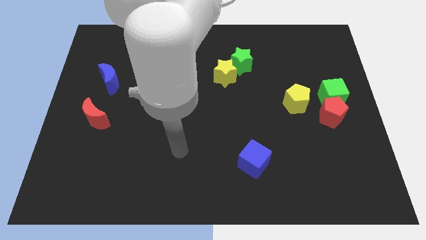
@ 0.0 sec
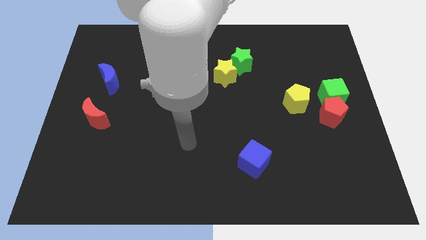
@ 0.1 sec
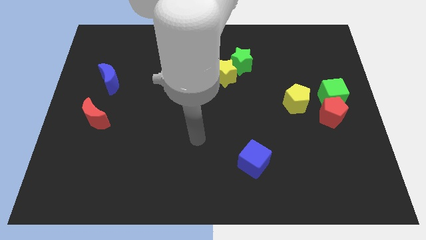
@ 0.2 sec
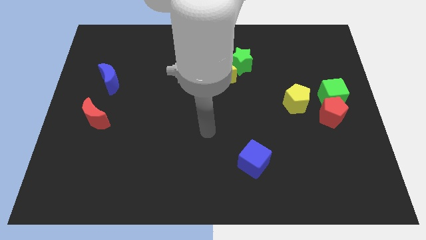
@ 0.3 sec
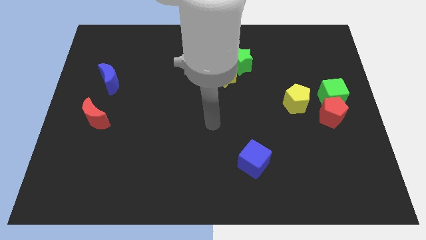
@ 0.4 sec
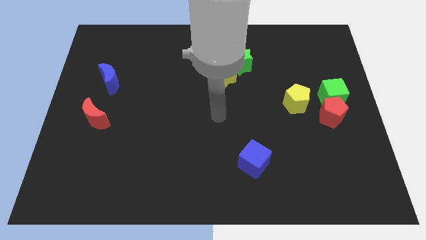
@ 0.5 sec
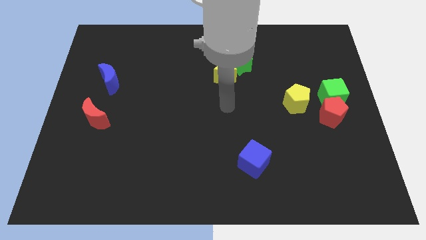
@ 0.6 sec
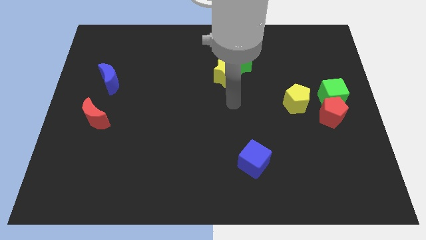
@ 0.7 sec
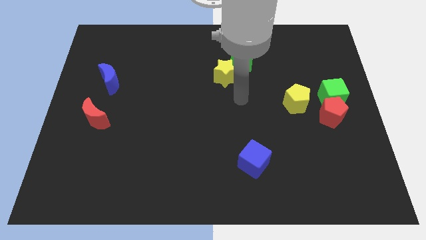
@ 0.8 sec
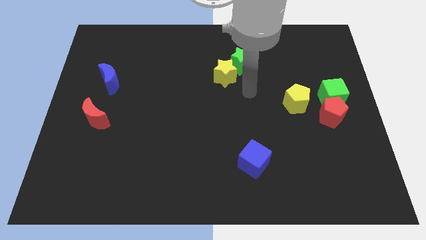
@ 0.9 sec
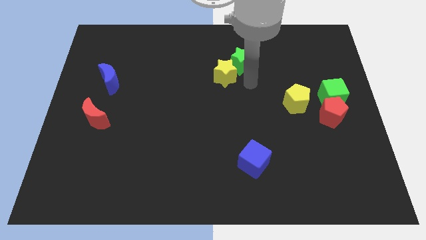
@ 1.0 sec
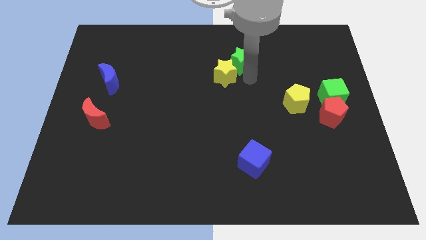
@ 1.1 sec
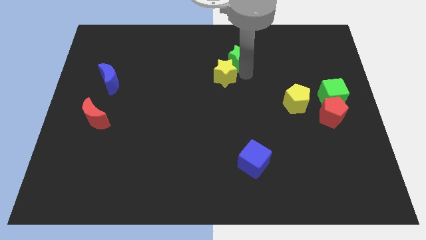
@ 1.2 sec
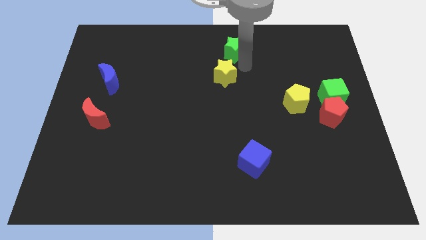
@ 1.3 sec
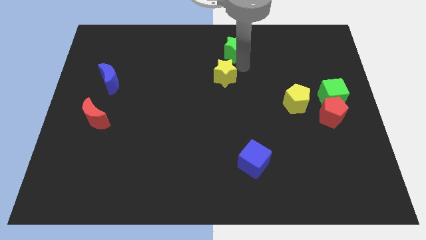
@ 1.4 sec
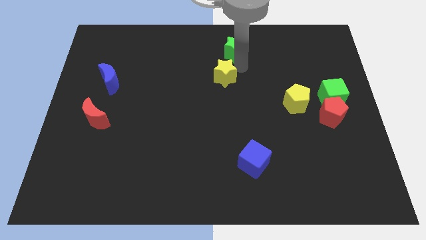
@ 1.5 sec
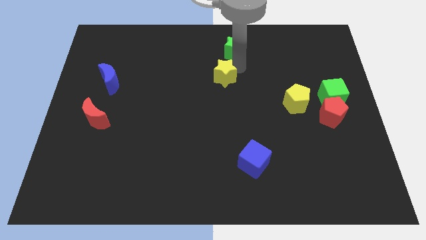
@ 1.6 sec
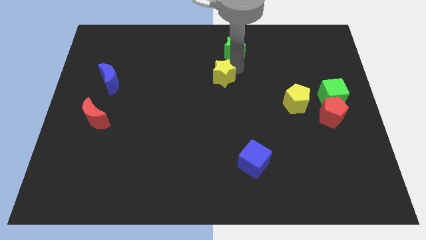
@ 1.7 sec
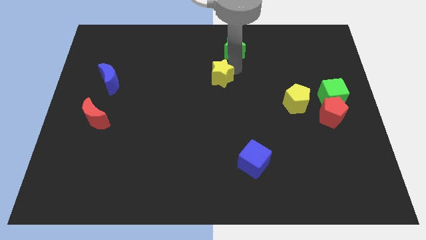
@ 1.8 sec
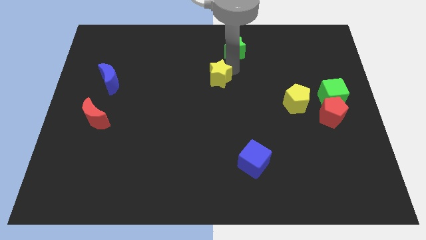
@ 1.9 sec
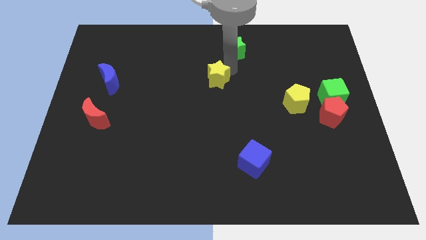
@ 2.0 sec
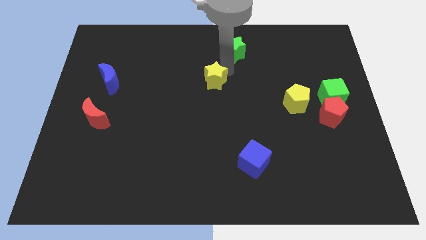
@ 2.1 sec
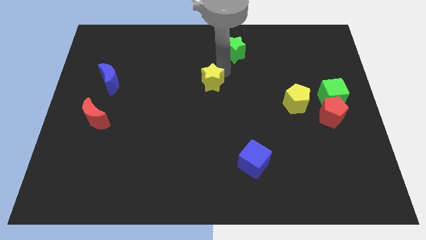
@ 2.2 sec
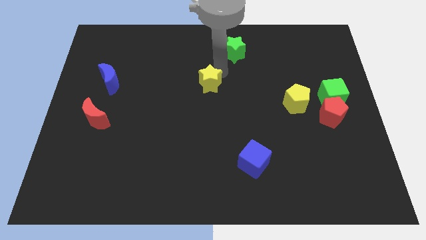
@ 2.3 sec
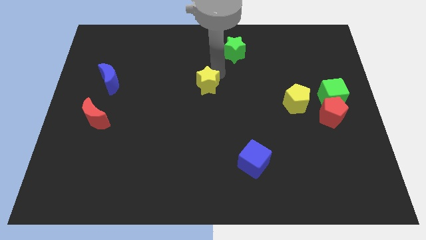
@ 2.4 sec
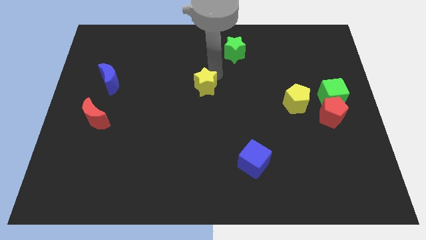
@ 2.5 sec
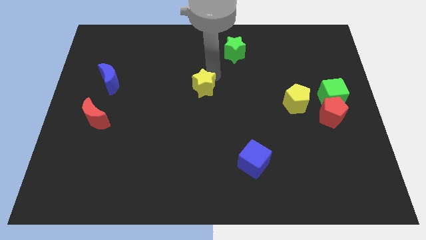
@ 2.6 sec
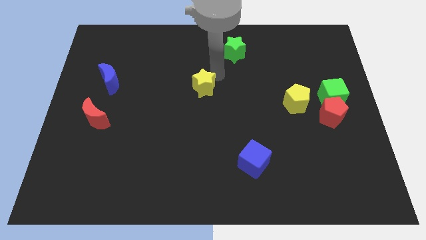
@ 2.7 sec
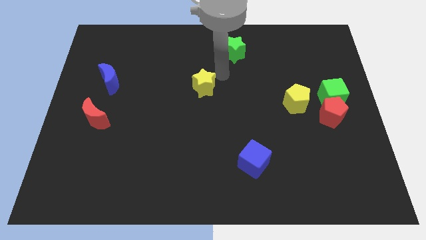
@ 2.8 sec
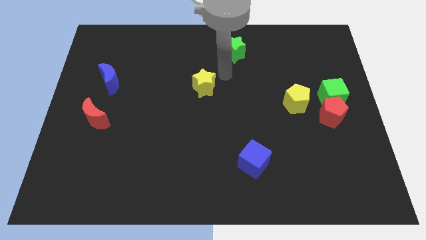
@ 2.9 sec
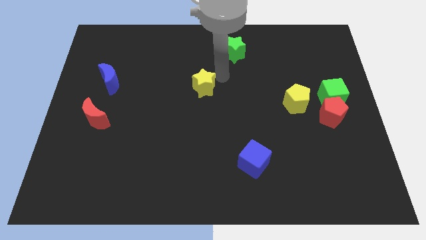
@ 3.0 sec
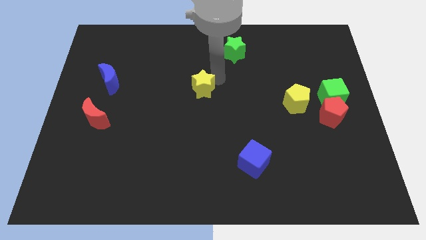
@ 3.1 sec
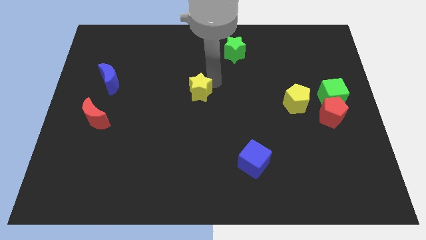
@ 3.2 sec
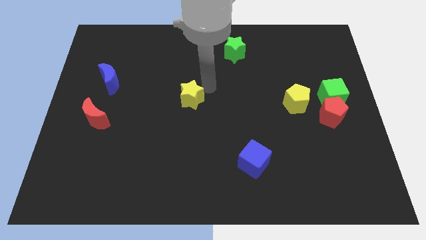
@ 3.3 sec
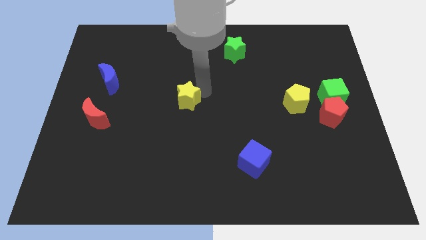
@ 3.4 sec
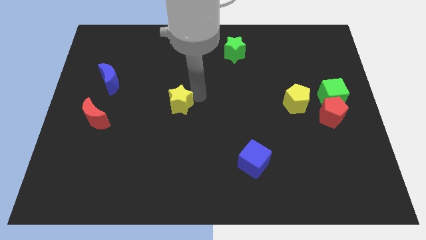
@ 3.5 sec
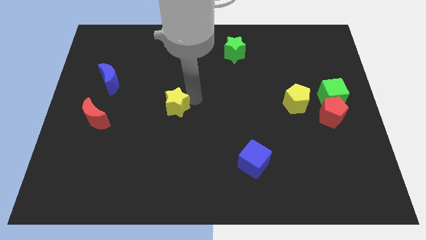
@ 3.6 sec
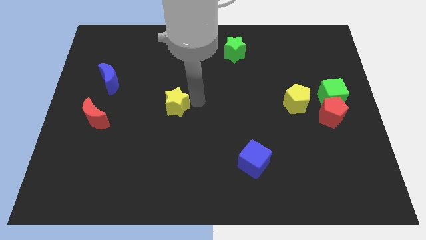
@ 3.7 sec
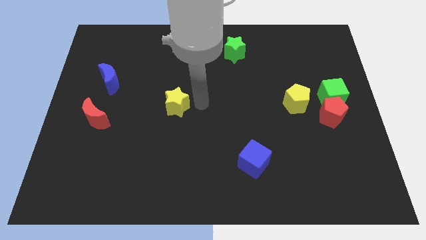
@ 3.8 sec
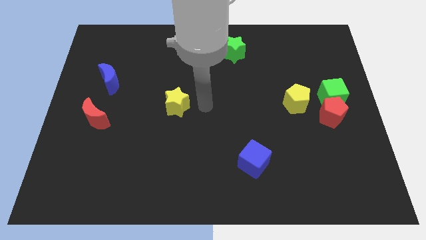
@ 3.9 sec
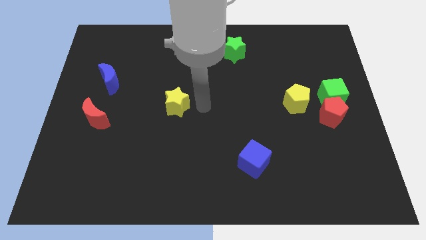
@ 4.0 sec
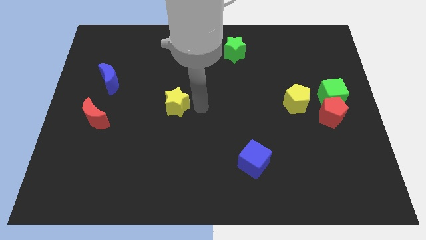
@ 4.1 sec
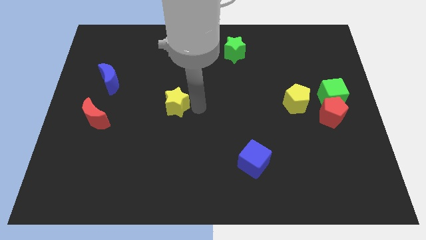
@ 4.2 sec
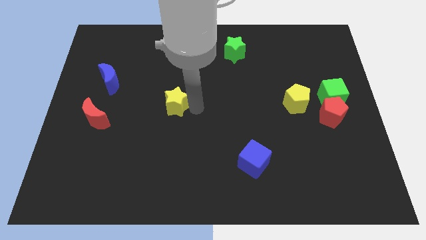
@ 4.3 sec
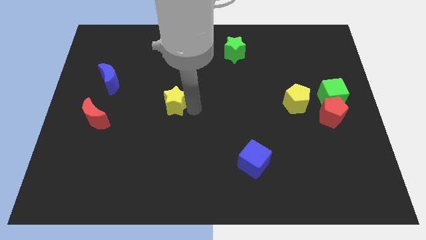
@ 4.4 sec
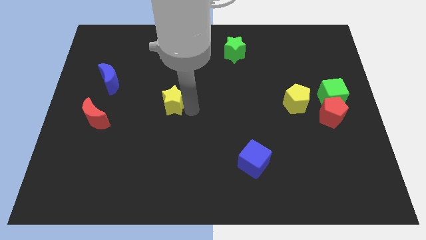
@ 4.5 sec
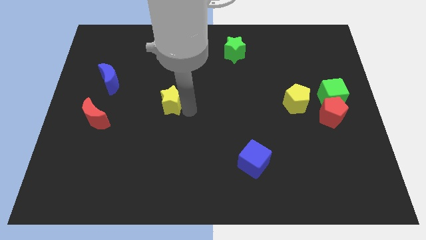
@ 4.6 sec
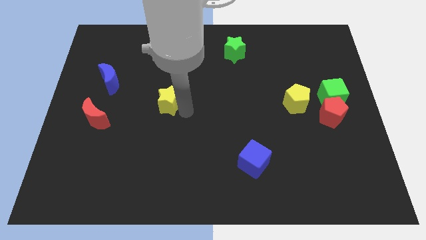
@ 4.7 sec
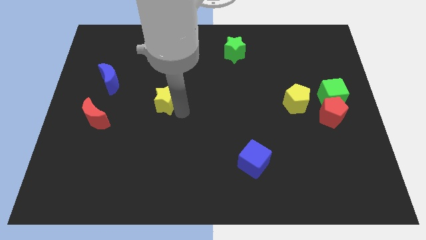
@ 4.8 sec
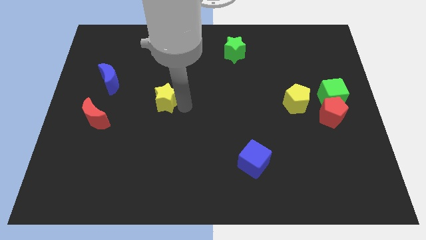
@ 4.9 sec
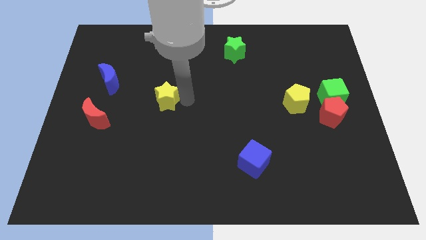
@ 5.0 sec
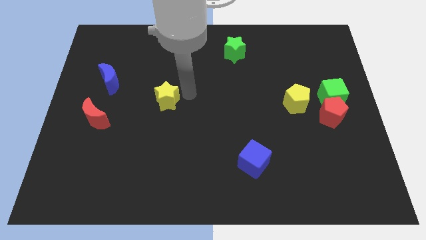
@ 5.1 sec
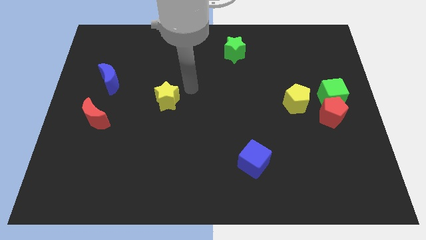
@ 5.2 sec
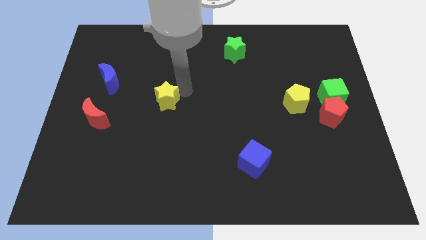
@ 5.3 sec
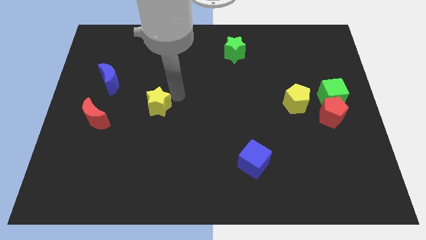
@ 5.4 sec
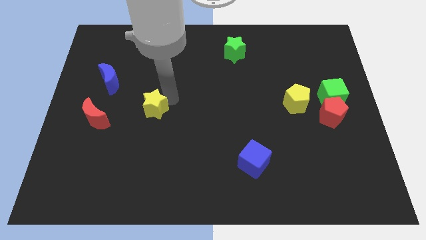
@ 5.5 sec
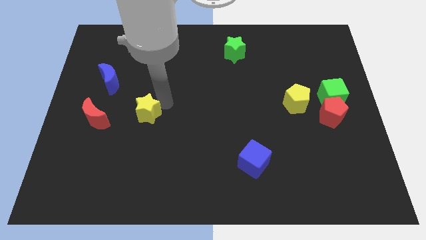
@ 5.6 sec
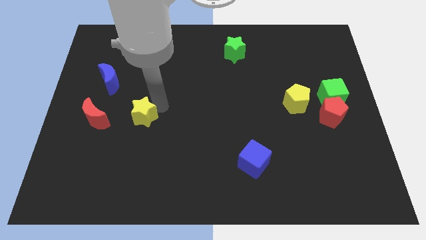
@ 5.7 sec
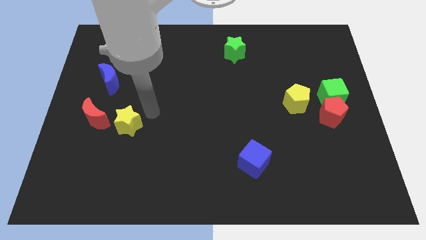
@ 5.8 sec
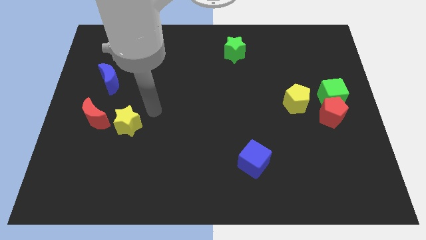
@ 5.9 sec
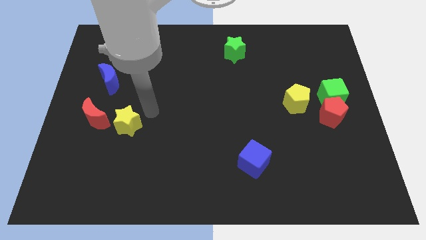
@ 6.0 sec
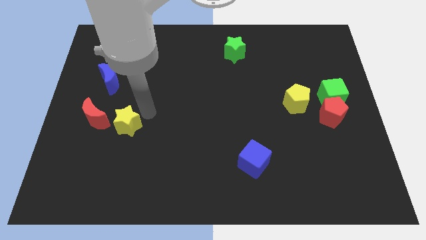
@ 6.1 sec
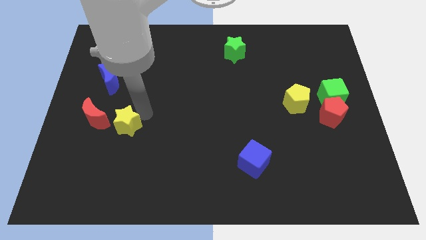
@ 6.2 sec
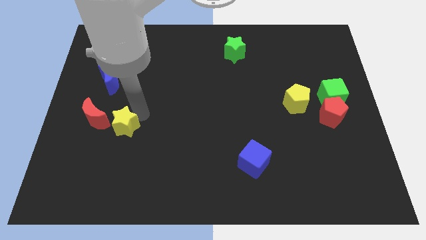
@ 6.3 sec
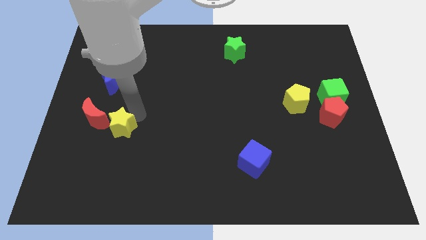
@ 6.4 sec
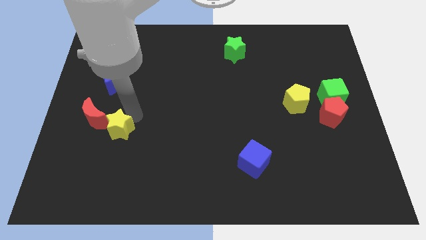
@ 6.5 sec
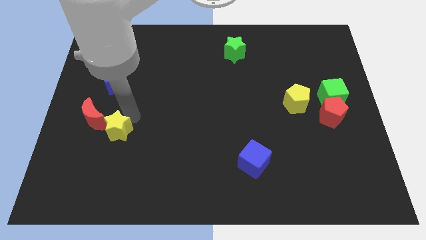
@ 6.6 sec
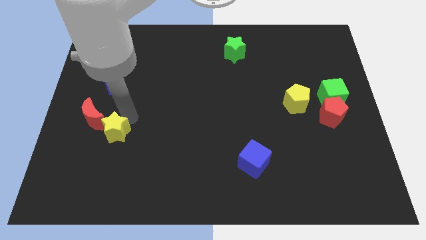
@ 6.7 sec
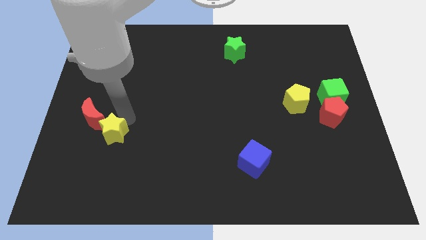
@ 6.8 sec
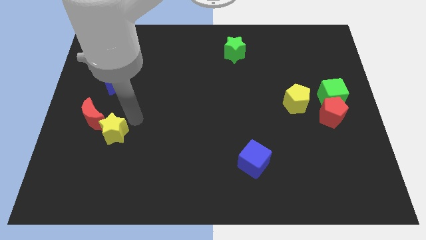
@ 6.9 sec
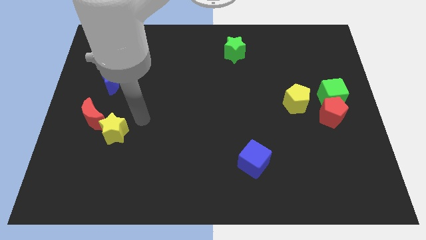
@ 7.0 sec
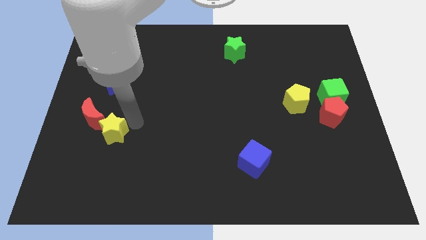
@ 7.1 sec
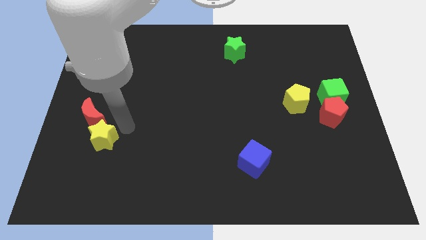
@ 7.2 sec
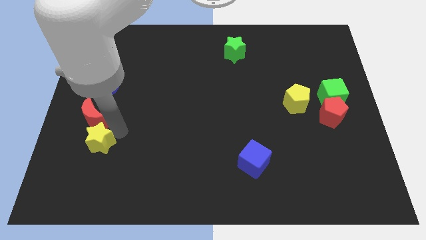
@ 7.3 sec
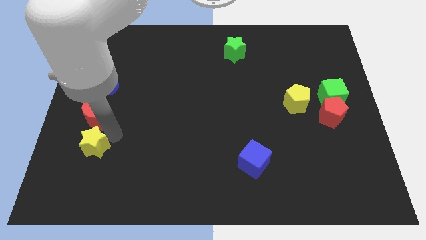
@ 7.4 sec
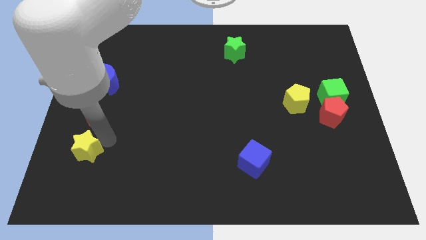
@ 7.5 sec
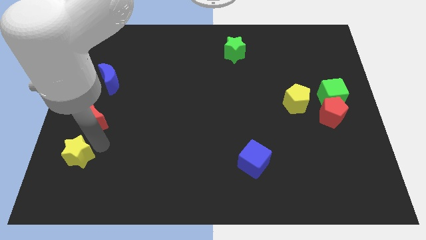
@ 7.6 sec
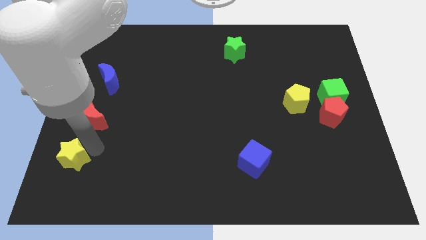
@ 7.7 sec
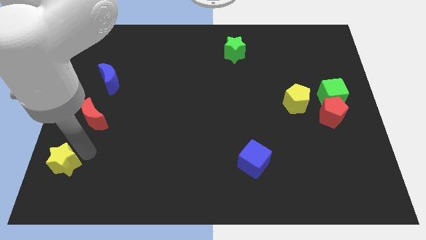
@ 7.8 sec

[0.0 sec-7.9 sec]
move the yellow star to the lower left corner
